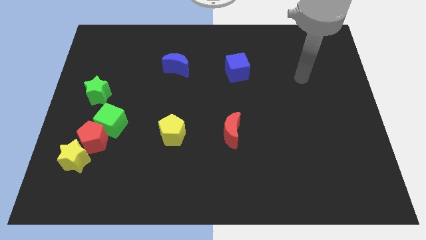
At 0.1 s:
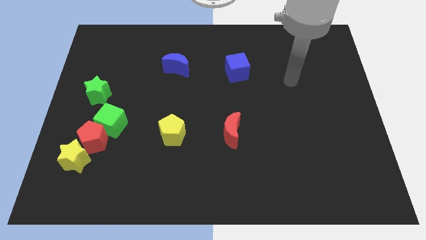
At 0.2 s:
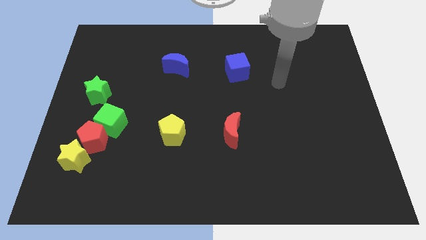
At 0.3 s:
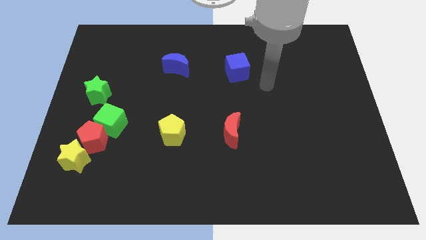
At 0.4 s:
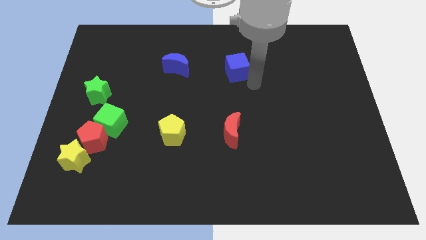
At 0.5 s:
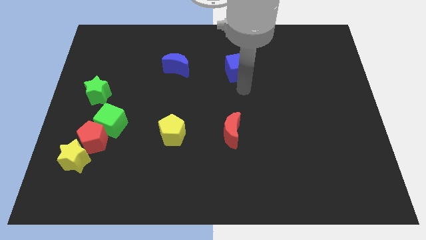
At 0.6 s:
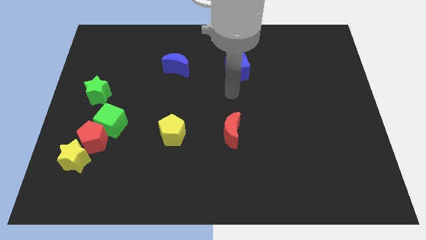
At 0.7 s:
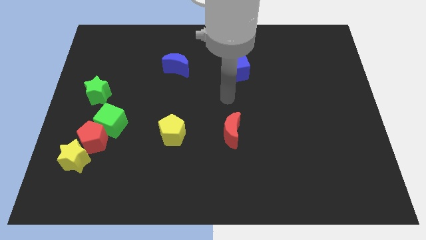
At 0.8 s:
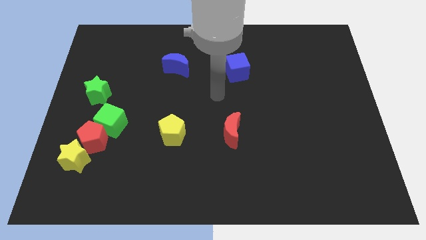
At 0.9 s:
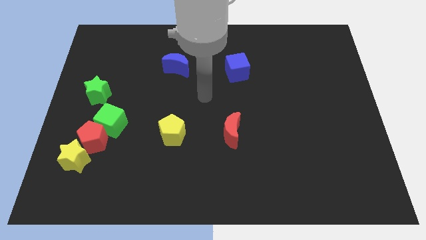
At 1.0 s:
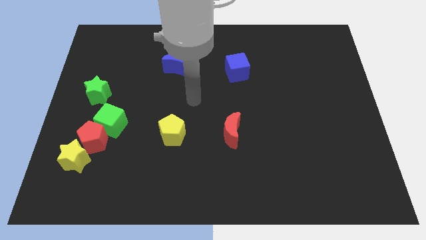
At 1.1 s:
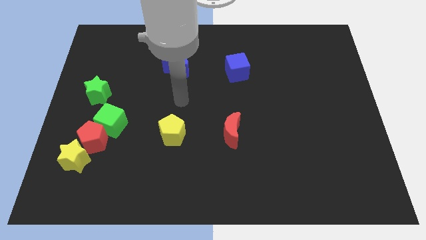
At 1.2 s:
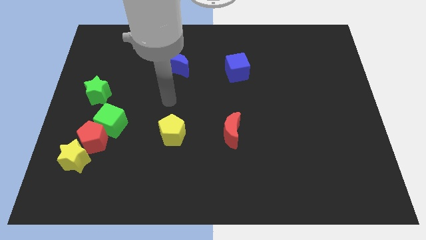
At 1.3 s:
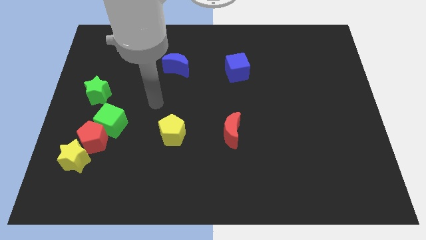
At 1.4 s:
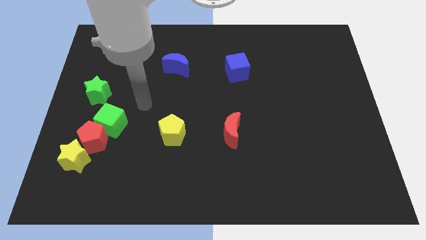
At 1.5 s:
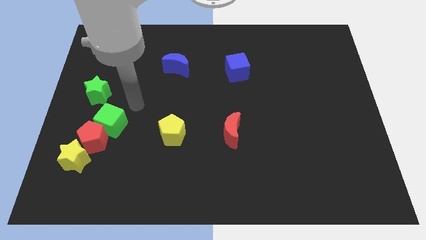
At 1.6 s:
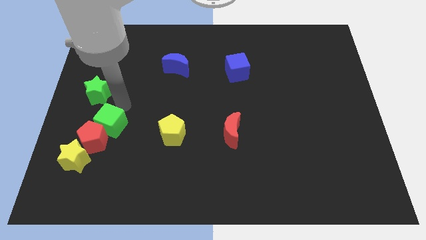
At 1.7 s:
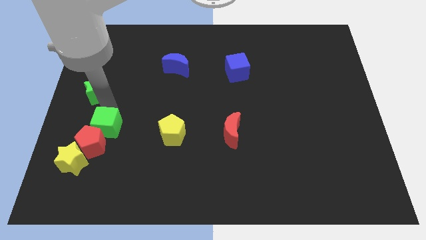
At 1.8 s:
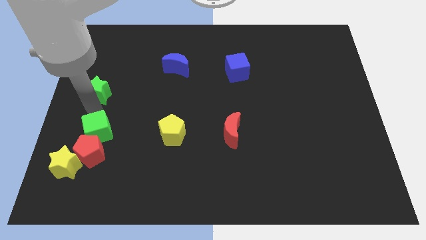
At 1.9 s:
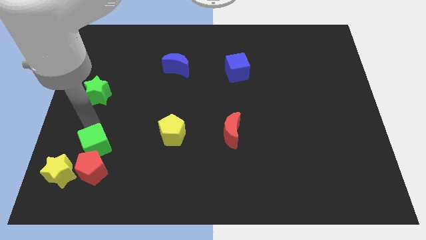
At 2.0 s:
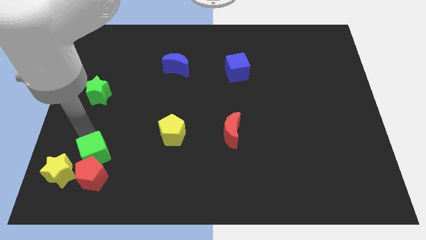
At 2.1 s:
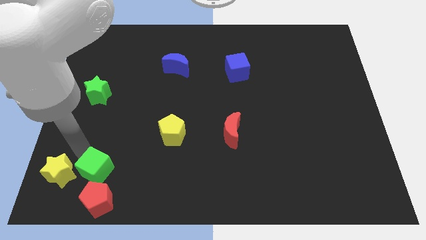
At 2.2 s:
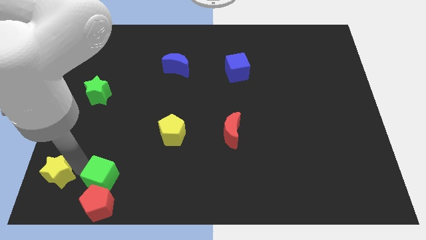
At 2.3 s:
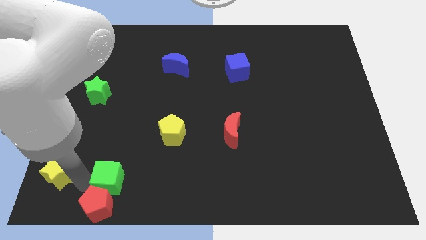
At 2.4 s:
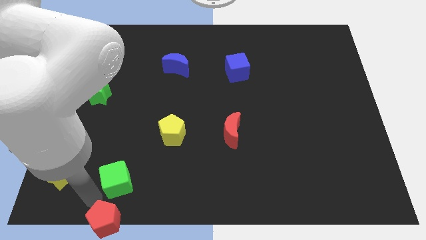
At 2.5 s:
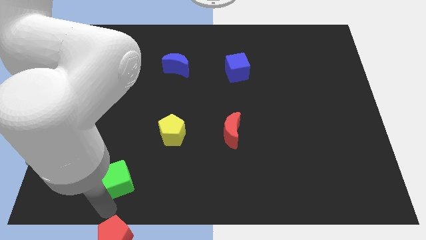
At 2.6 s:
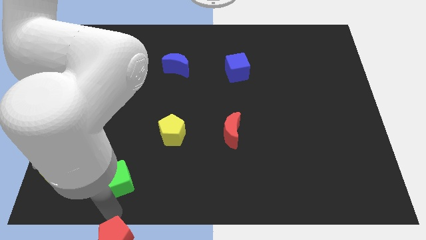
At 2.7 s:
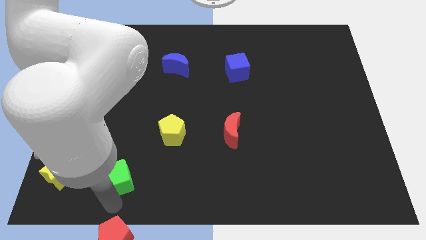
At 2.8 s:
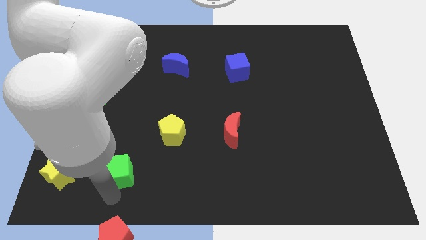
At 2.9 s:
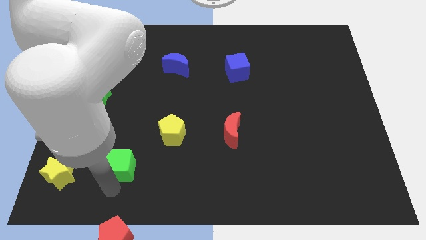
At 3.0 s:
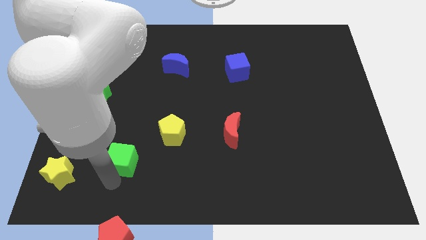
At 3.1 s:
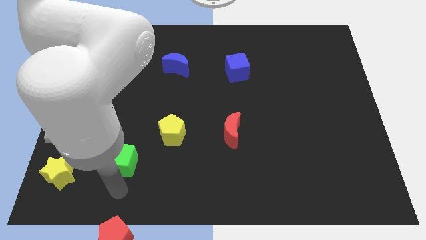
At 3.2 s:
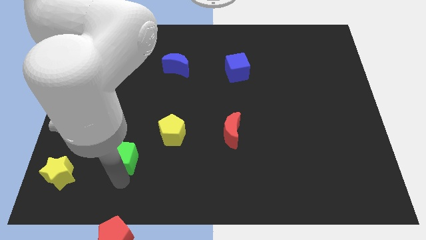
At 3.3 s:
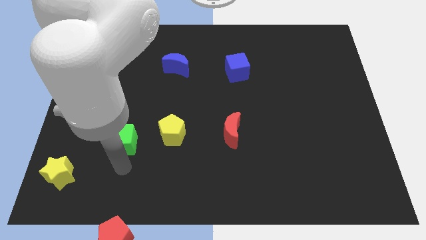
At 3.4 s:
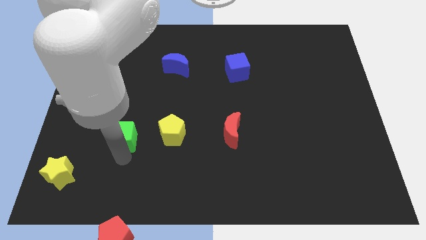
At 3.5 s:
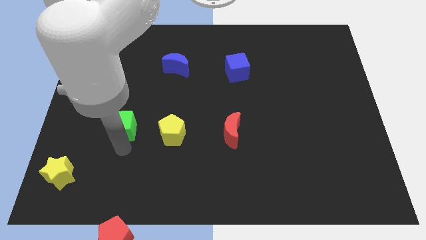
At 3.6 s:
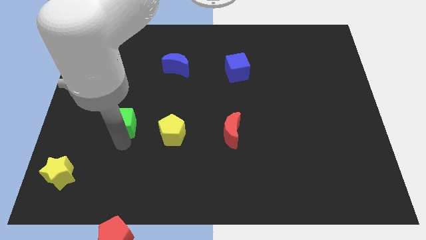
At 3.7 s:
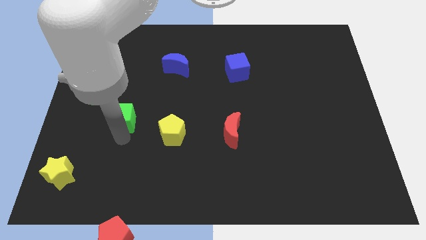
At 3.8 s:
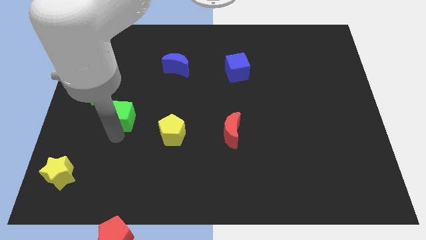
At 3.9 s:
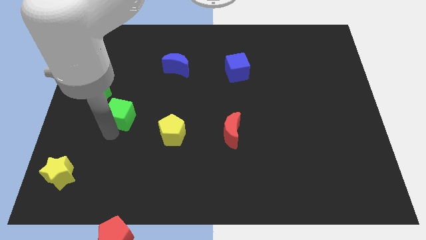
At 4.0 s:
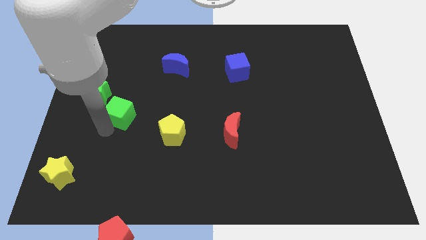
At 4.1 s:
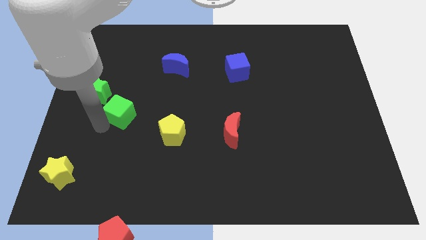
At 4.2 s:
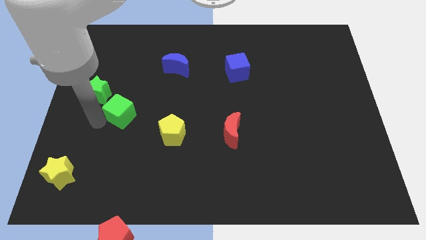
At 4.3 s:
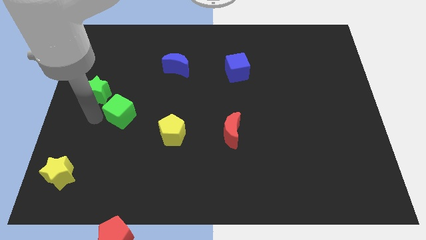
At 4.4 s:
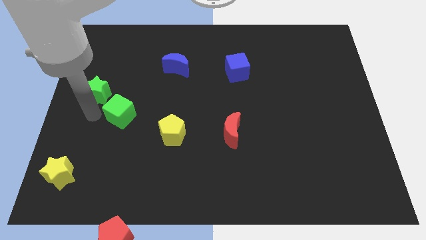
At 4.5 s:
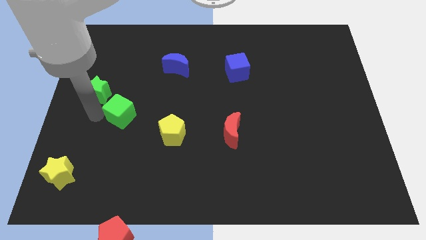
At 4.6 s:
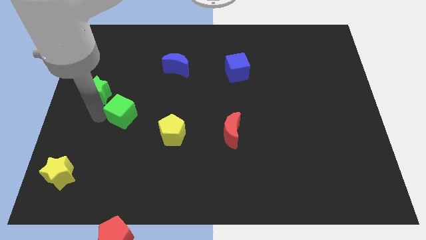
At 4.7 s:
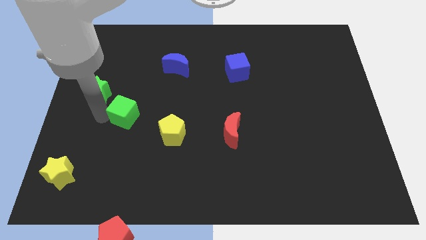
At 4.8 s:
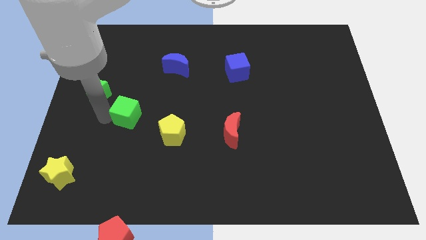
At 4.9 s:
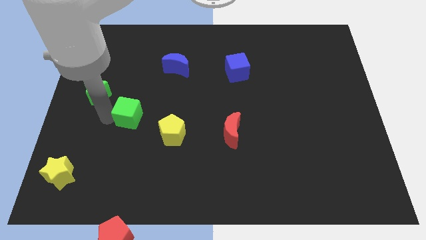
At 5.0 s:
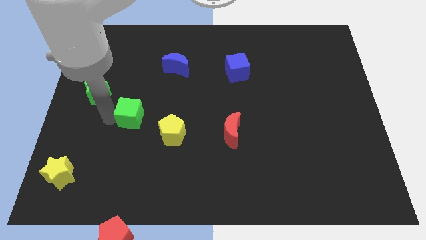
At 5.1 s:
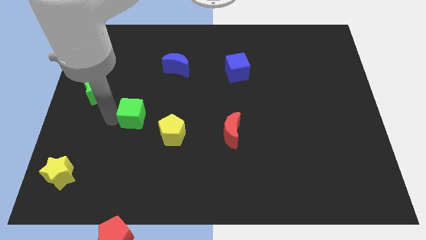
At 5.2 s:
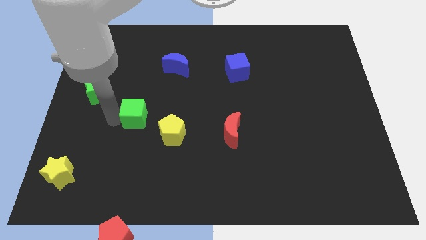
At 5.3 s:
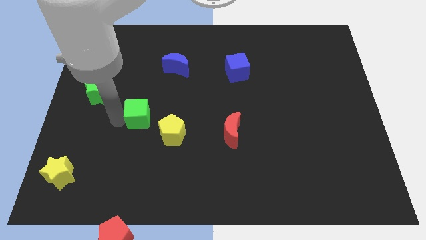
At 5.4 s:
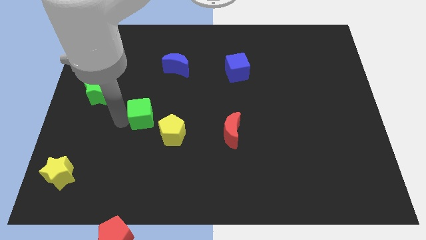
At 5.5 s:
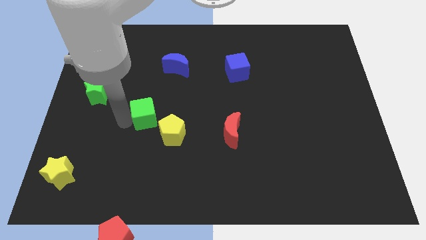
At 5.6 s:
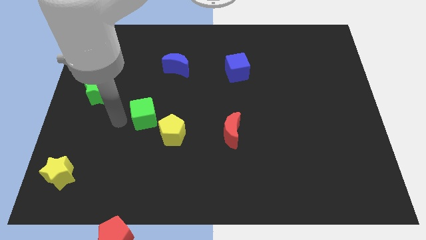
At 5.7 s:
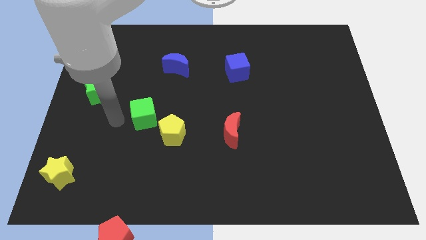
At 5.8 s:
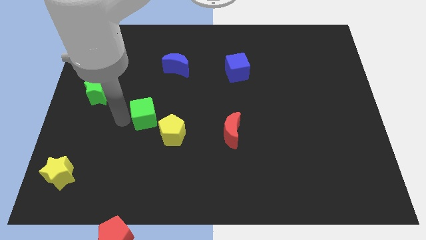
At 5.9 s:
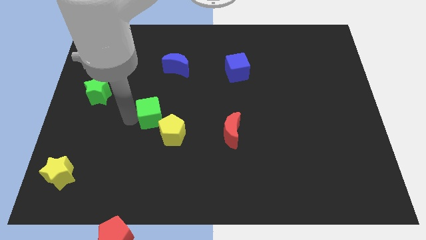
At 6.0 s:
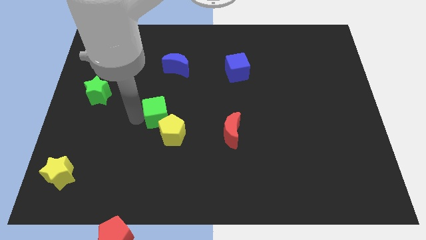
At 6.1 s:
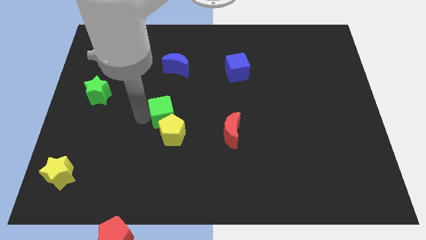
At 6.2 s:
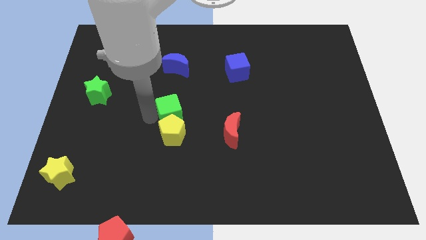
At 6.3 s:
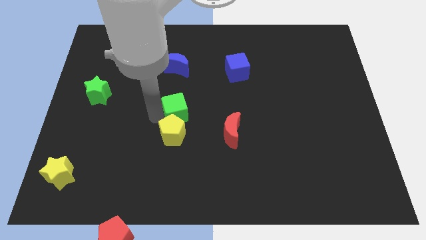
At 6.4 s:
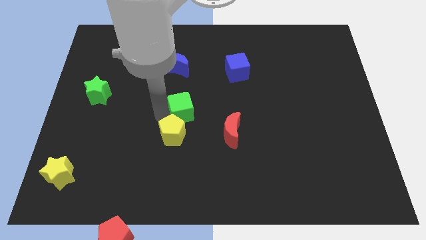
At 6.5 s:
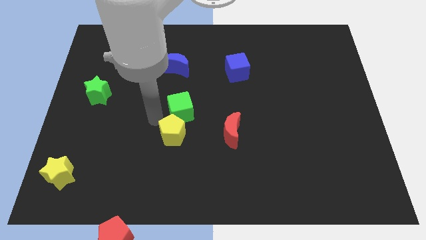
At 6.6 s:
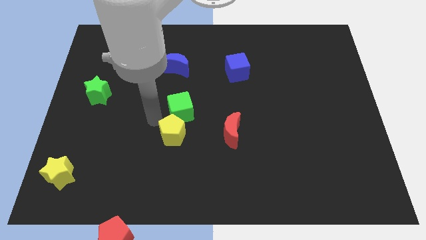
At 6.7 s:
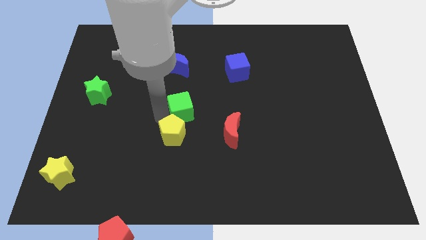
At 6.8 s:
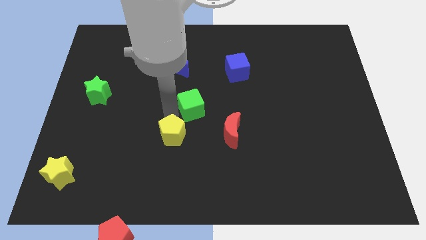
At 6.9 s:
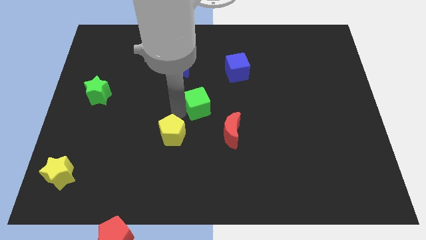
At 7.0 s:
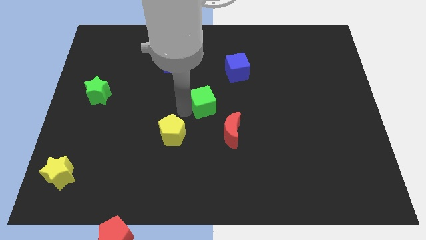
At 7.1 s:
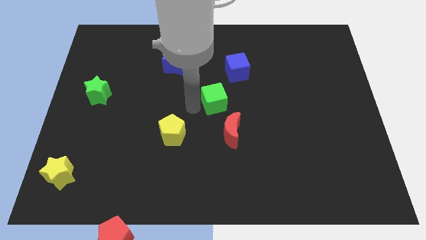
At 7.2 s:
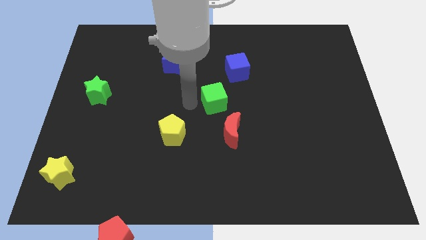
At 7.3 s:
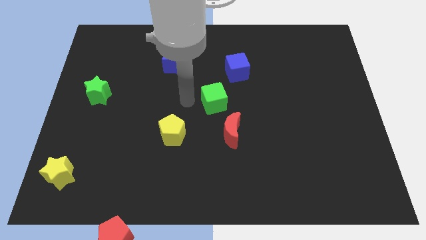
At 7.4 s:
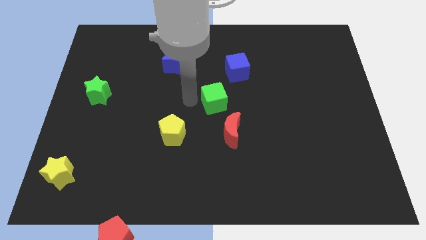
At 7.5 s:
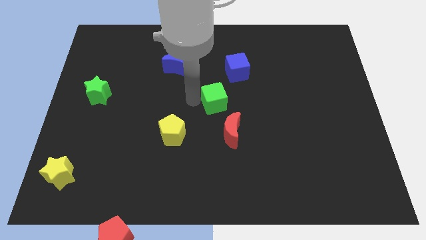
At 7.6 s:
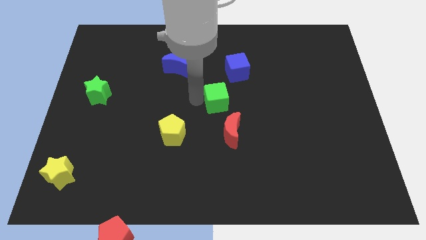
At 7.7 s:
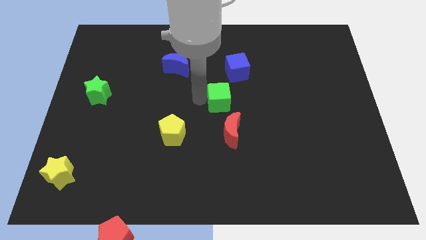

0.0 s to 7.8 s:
put the green cube to the bottom side of the blue cube
